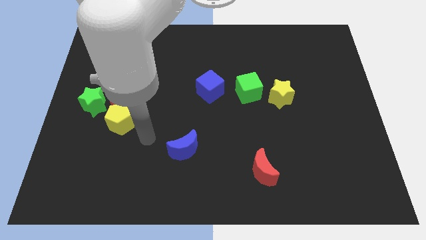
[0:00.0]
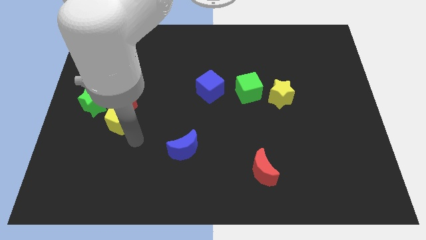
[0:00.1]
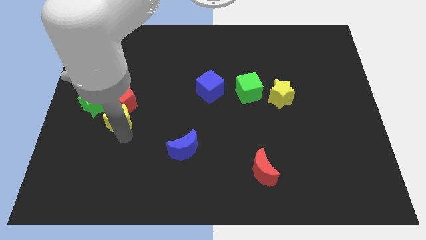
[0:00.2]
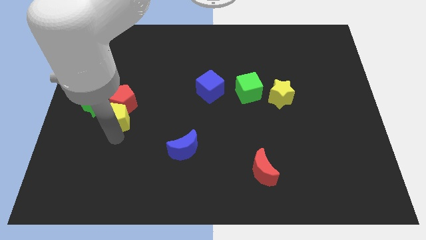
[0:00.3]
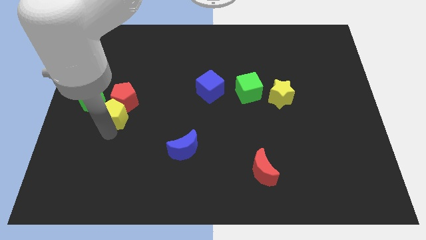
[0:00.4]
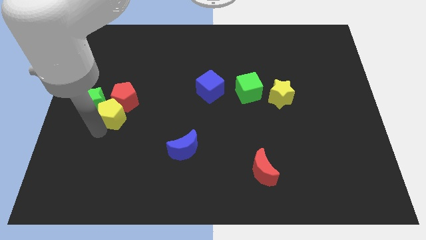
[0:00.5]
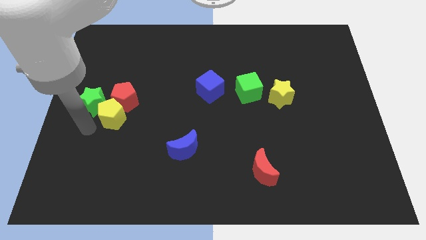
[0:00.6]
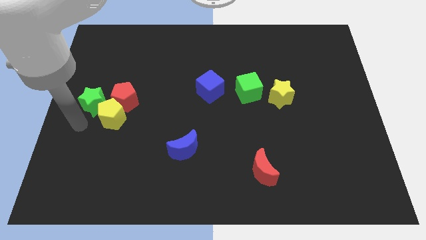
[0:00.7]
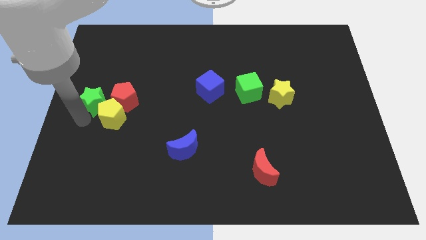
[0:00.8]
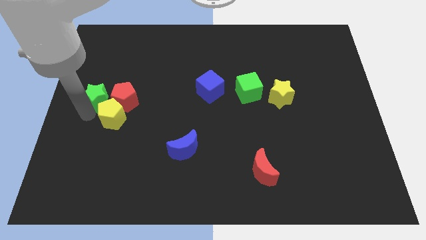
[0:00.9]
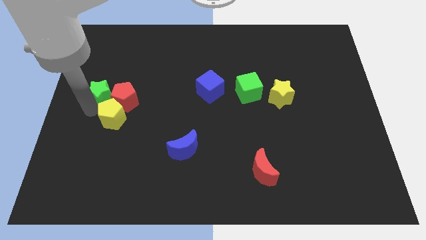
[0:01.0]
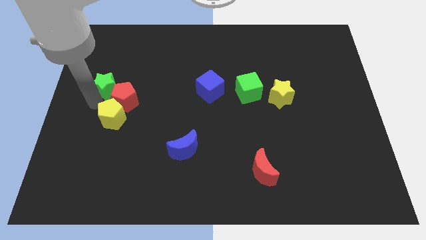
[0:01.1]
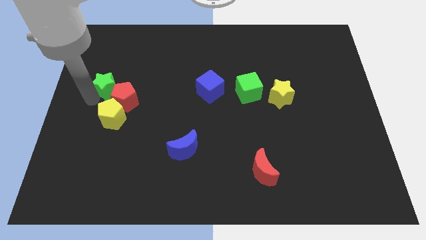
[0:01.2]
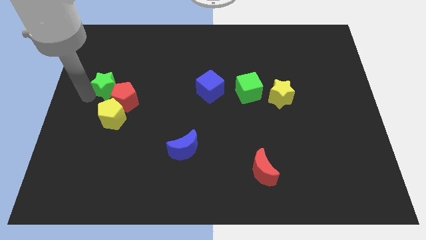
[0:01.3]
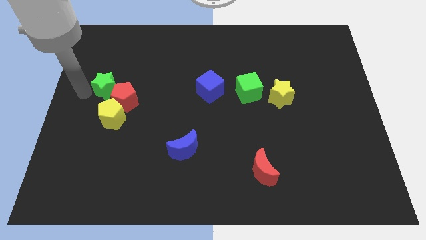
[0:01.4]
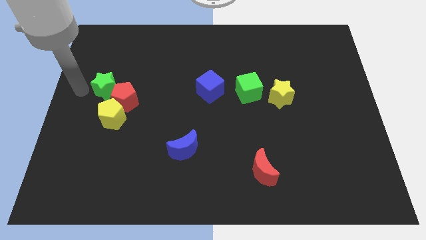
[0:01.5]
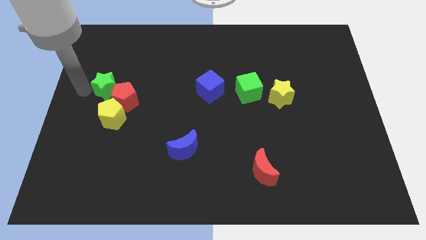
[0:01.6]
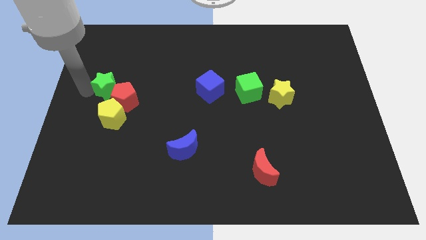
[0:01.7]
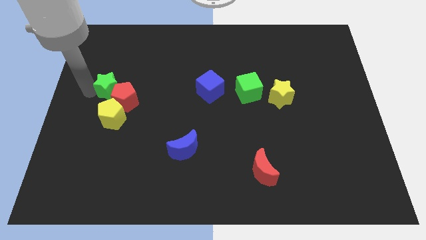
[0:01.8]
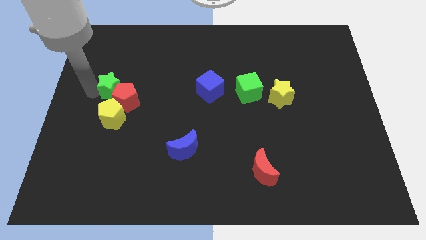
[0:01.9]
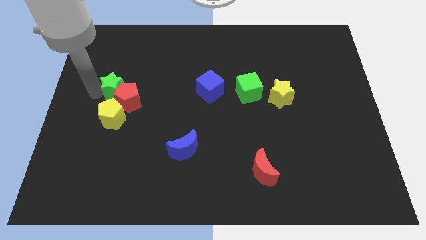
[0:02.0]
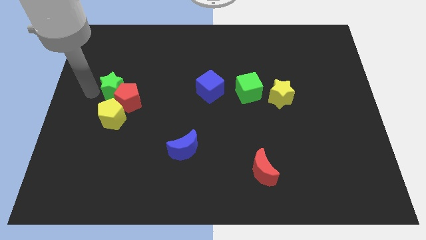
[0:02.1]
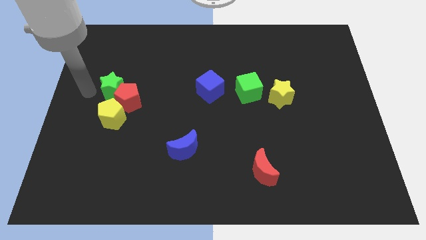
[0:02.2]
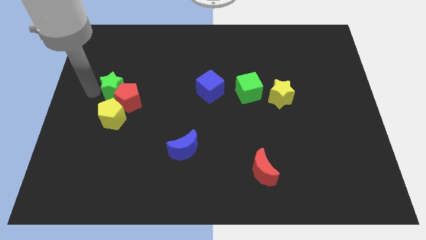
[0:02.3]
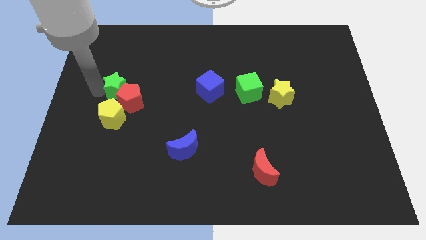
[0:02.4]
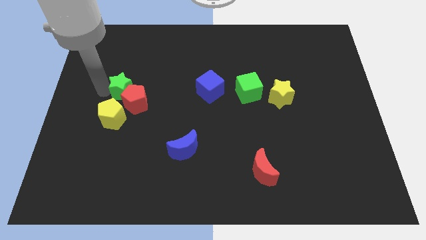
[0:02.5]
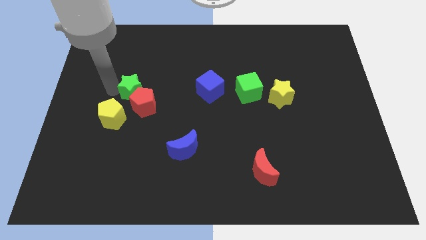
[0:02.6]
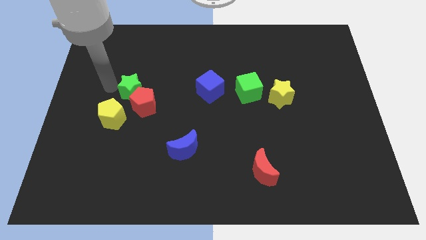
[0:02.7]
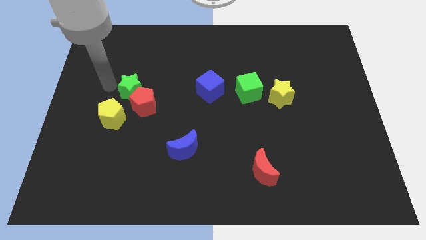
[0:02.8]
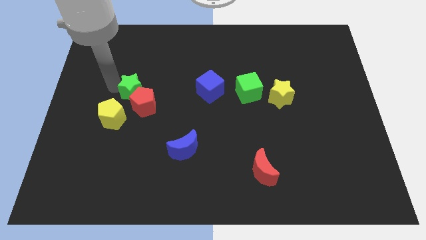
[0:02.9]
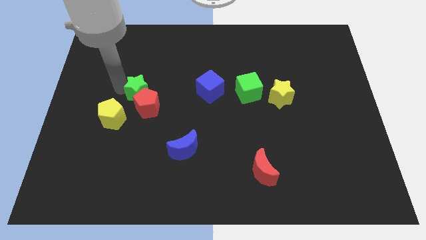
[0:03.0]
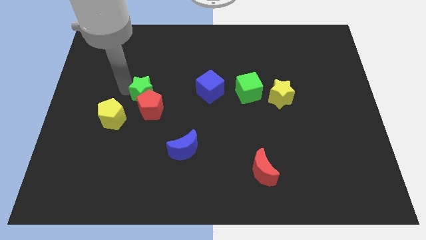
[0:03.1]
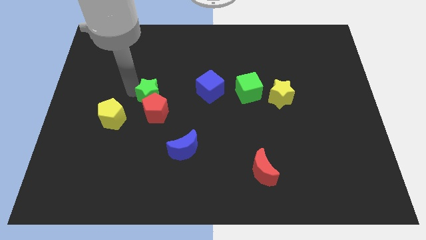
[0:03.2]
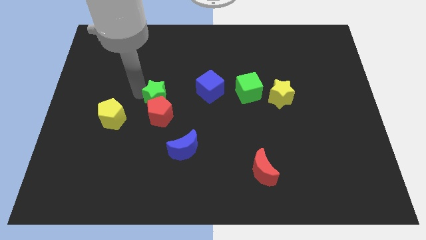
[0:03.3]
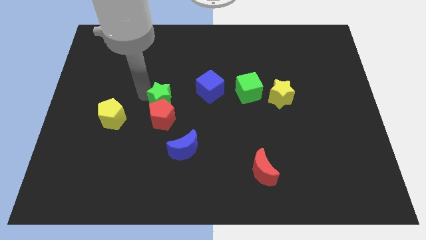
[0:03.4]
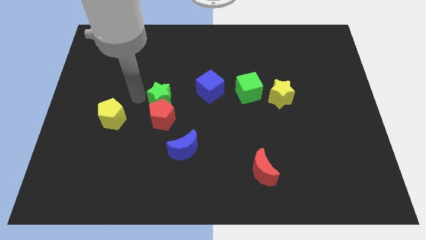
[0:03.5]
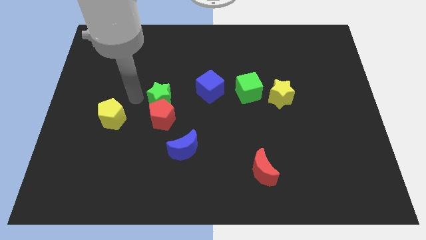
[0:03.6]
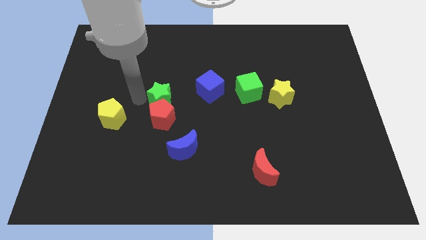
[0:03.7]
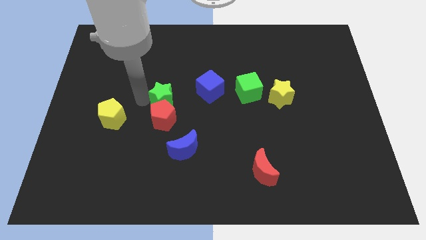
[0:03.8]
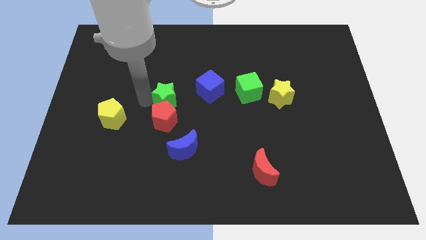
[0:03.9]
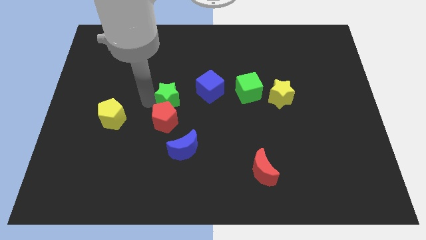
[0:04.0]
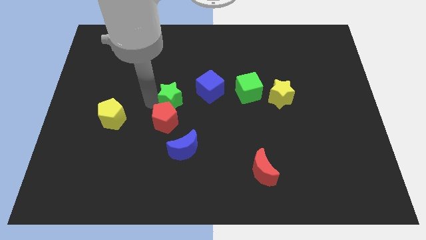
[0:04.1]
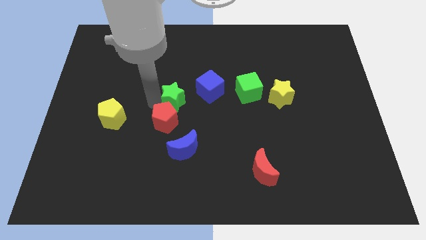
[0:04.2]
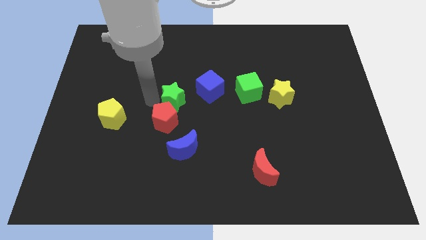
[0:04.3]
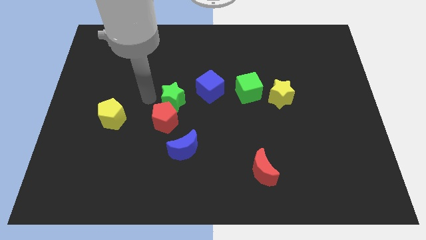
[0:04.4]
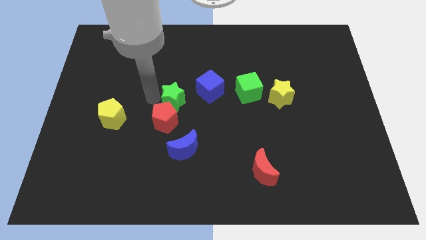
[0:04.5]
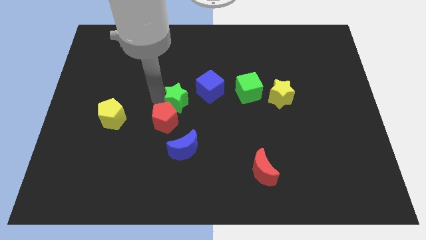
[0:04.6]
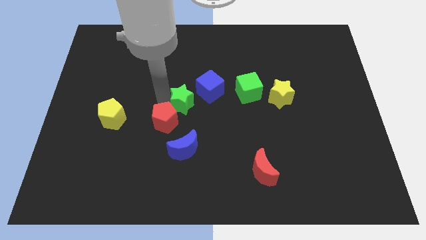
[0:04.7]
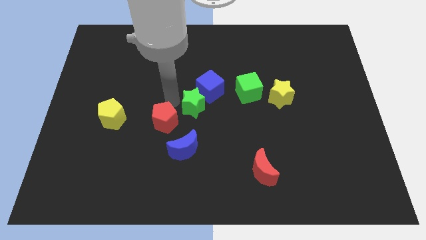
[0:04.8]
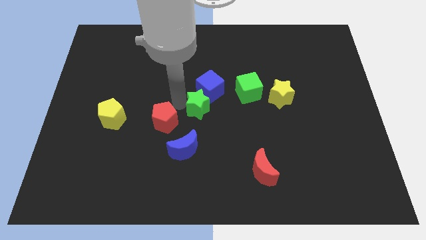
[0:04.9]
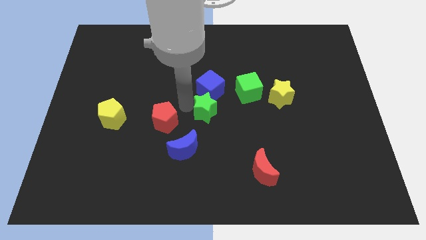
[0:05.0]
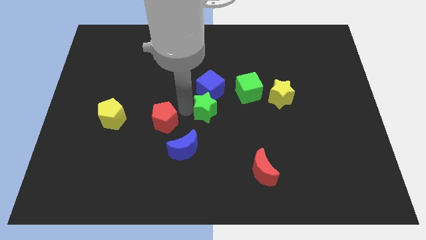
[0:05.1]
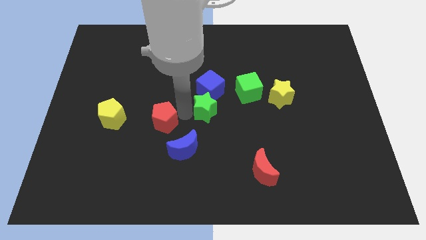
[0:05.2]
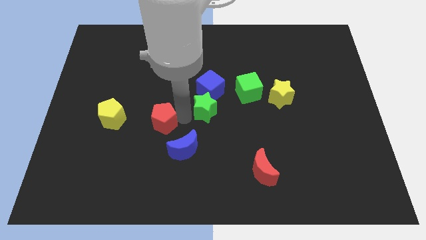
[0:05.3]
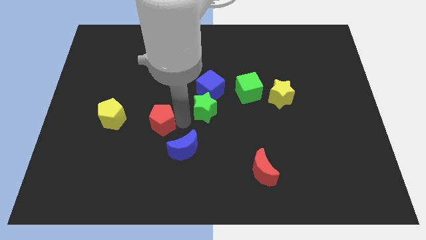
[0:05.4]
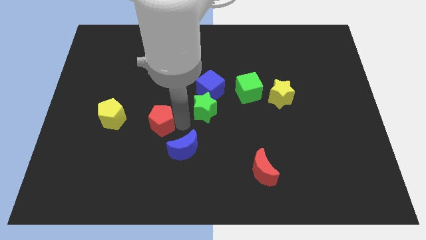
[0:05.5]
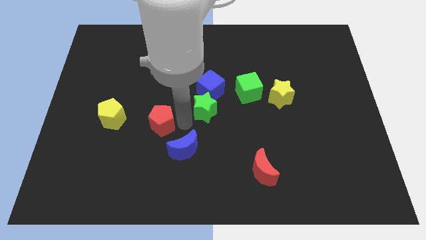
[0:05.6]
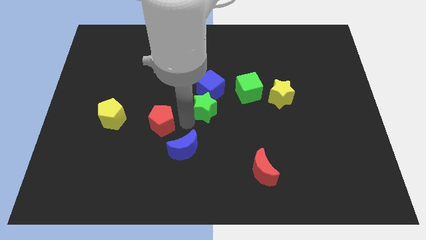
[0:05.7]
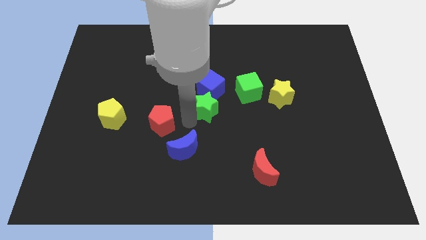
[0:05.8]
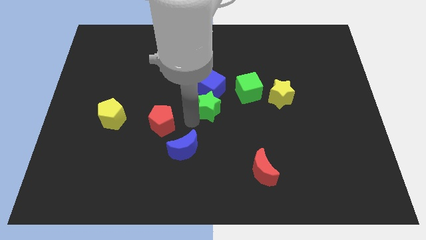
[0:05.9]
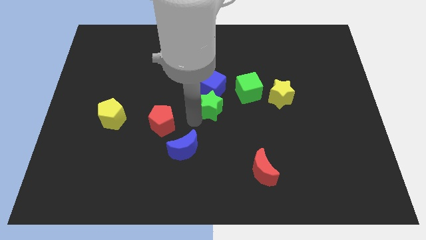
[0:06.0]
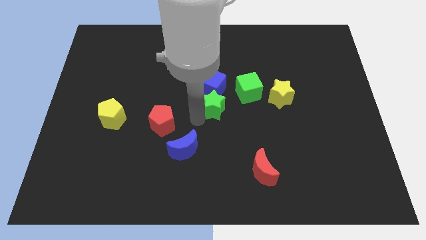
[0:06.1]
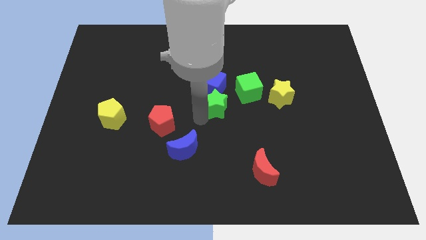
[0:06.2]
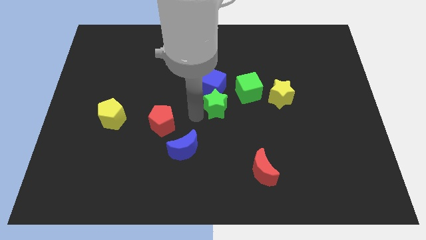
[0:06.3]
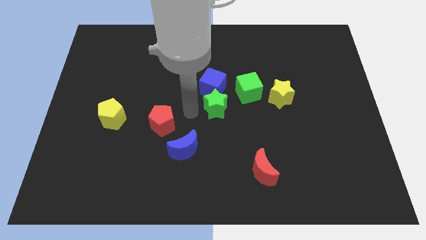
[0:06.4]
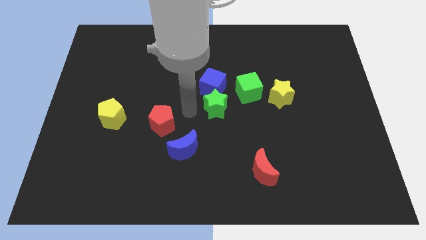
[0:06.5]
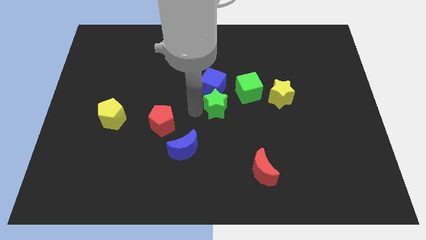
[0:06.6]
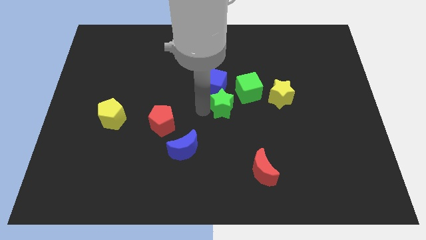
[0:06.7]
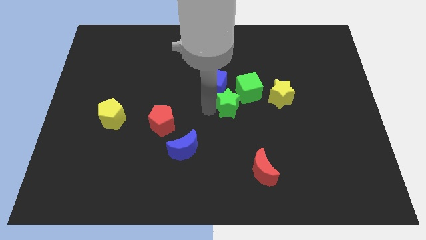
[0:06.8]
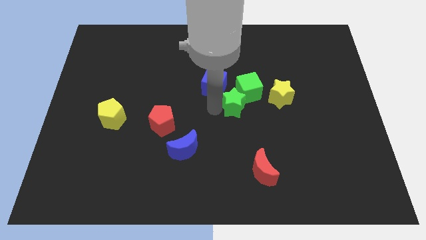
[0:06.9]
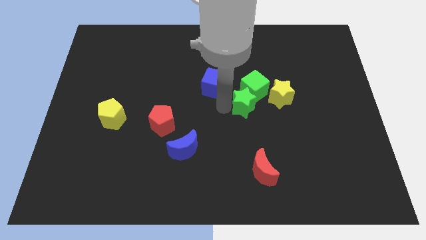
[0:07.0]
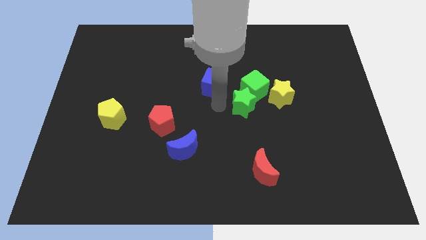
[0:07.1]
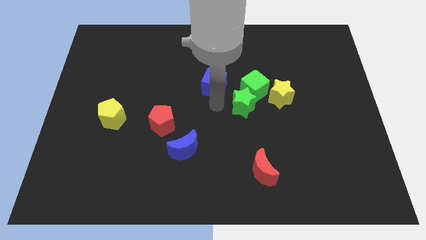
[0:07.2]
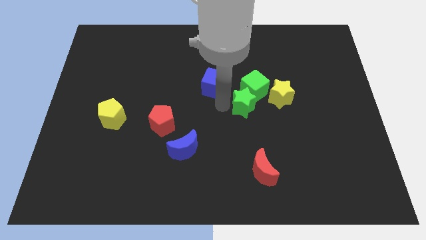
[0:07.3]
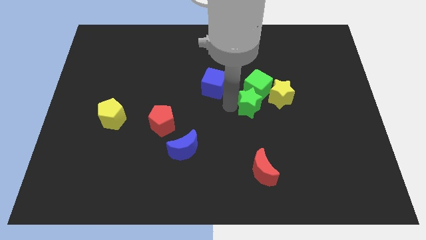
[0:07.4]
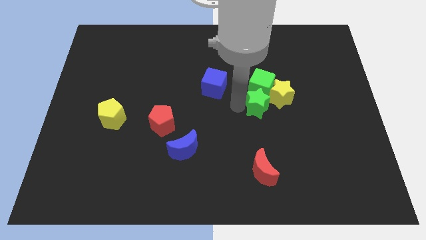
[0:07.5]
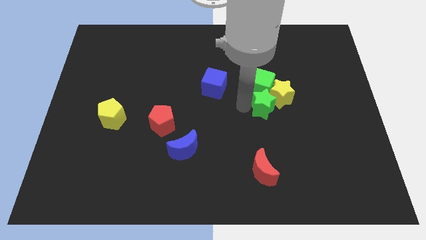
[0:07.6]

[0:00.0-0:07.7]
push the green star next to the yellow star
